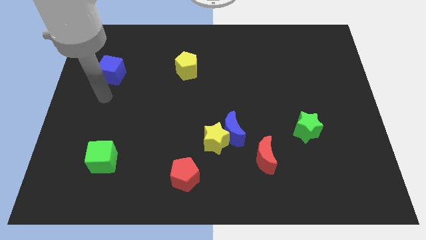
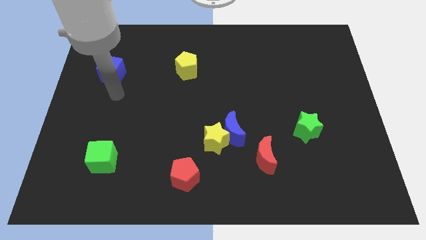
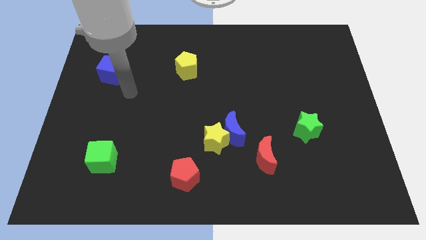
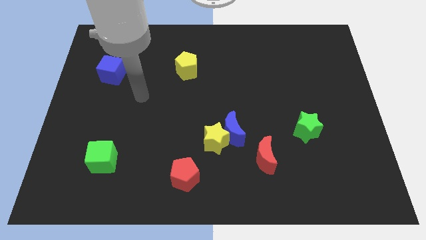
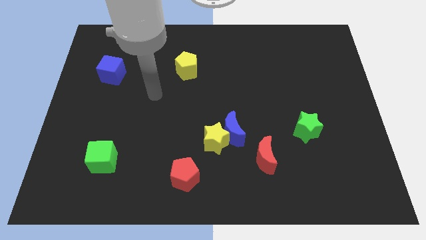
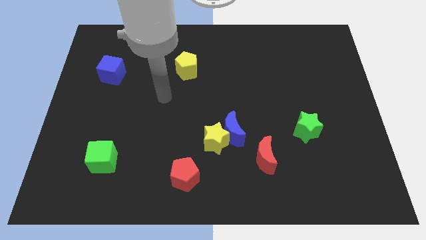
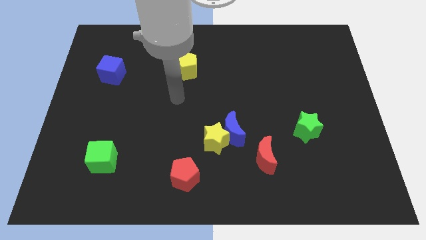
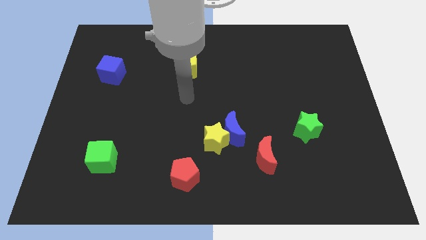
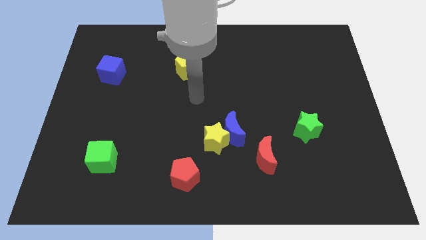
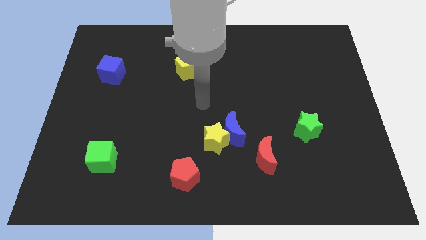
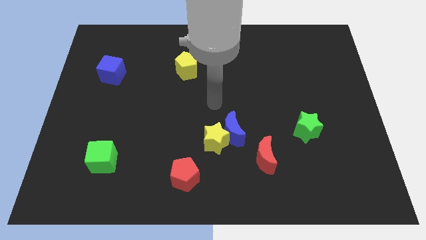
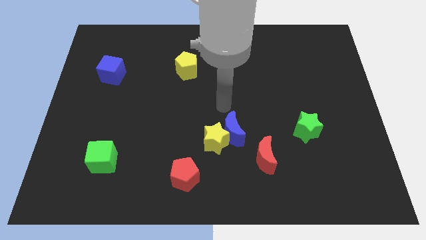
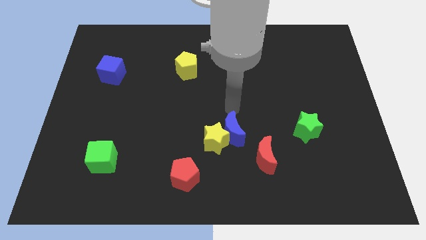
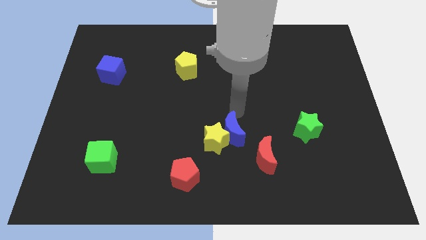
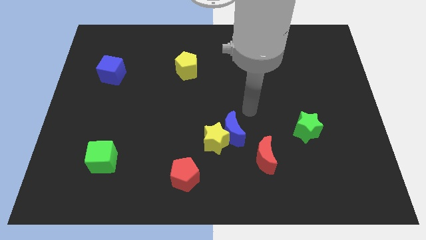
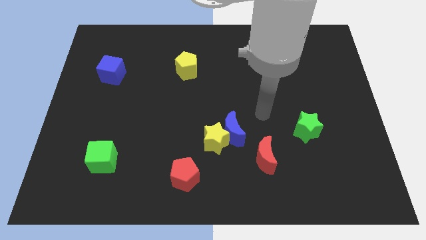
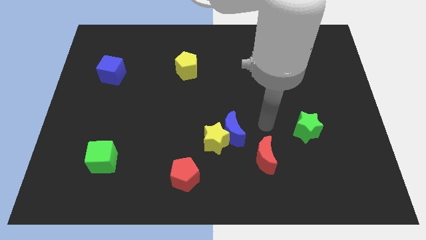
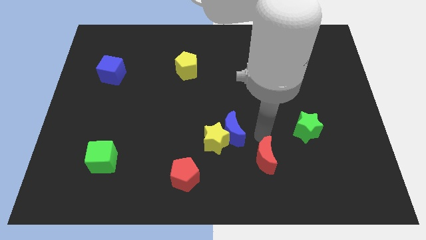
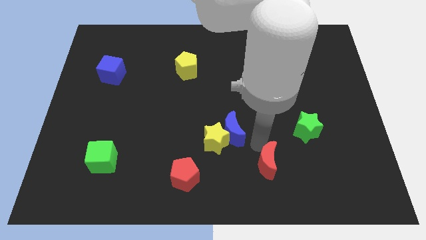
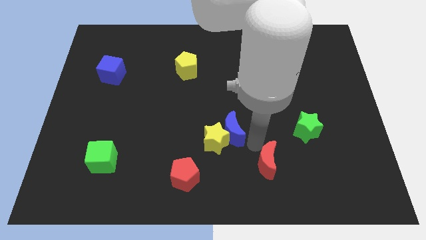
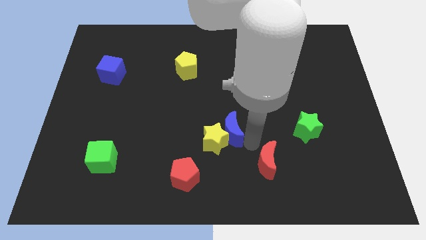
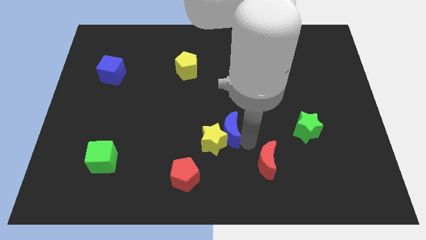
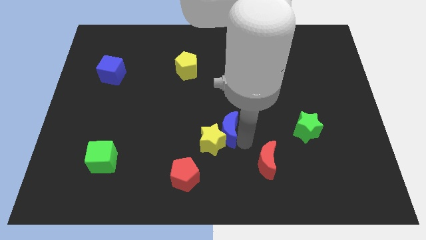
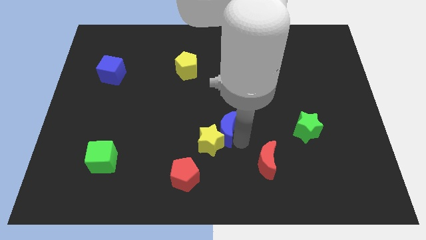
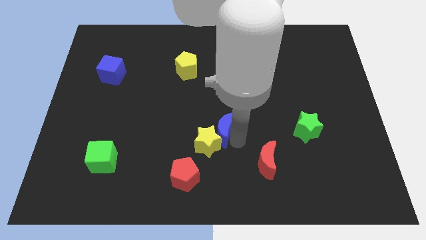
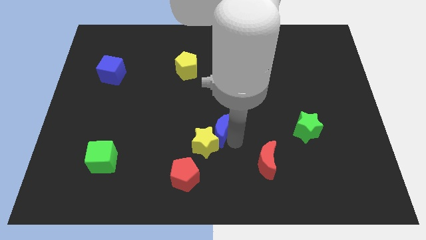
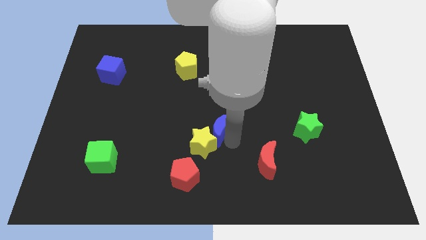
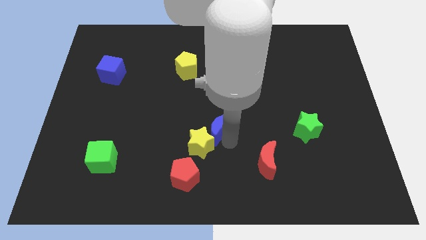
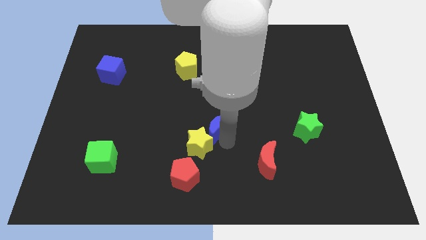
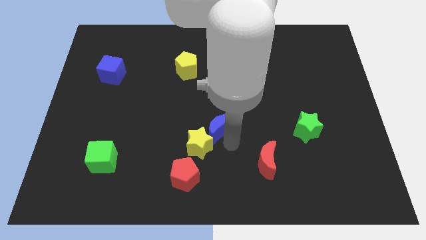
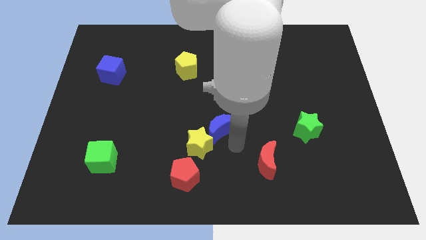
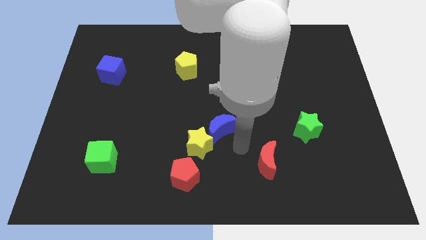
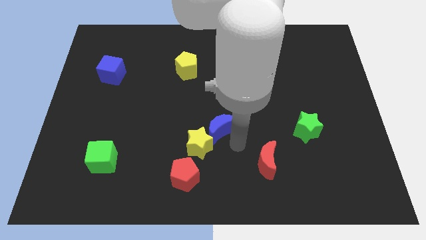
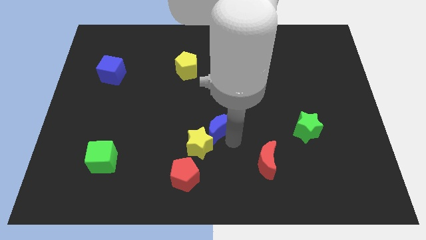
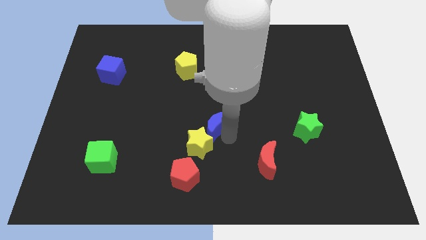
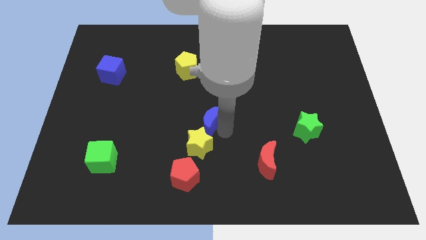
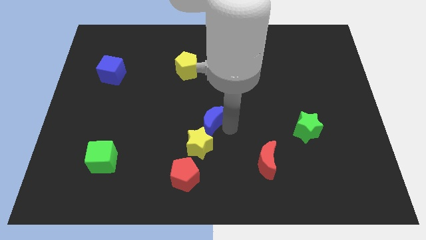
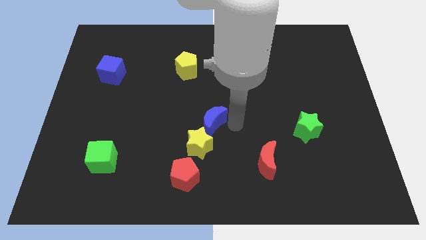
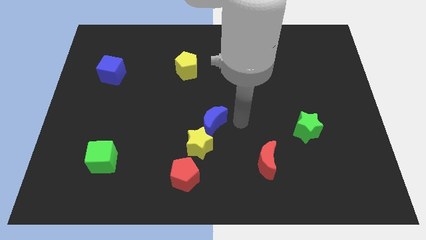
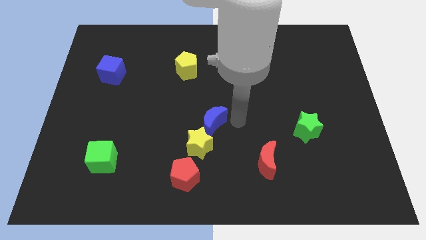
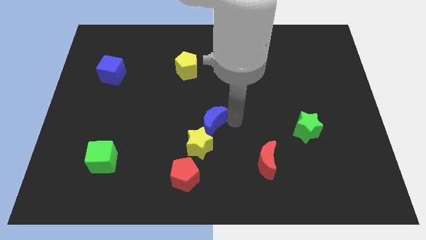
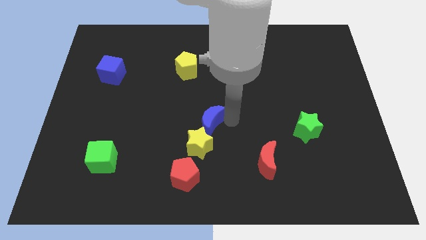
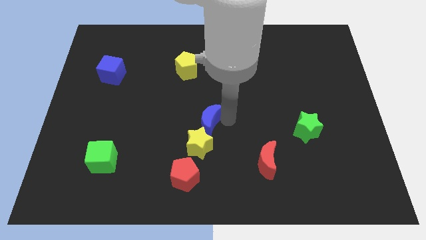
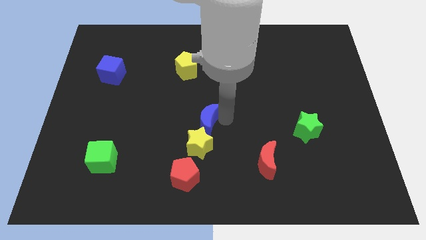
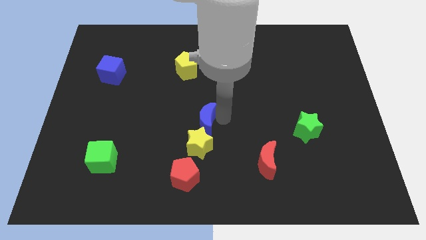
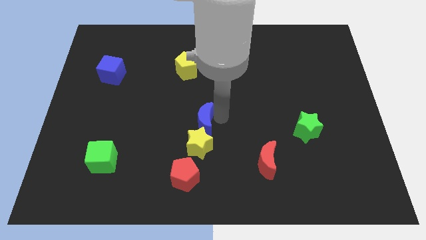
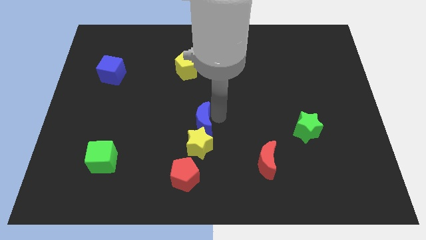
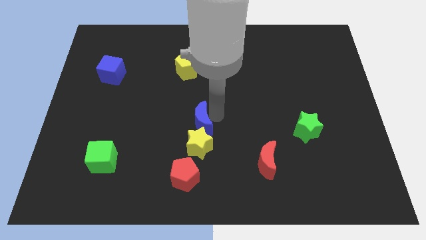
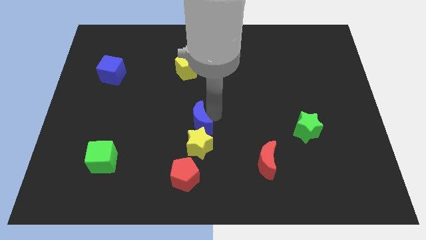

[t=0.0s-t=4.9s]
slide the blue moon a little bit to the left

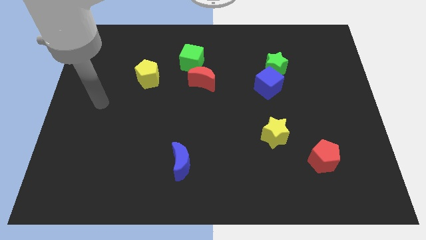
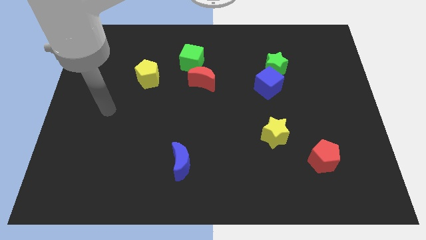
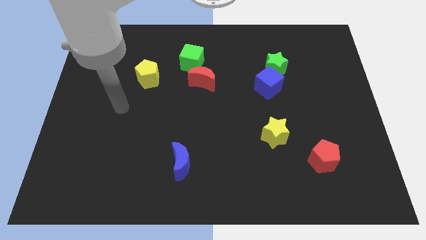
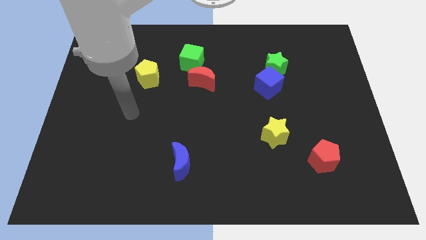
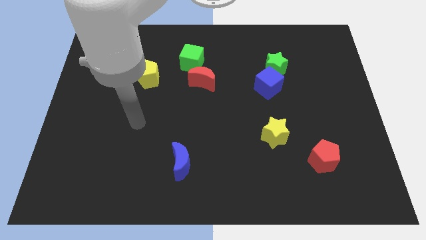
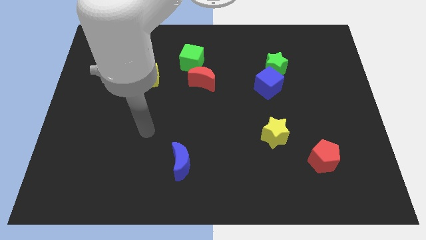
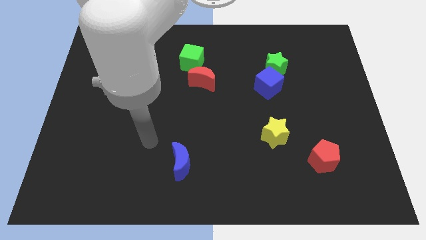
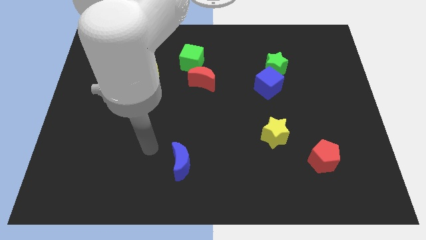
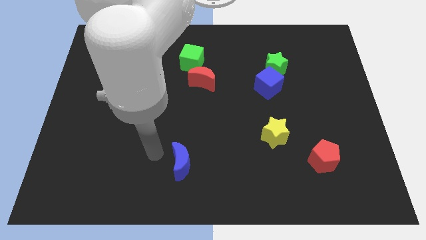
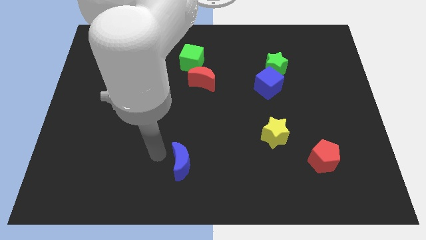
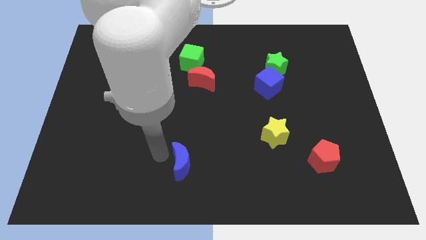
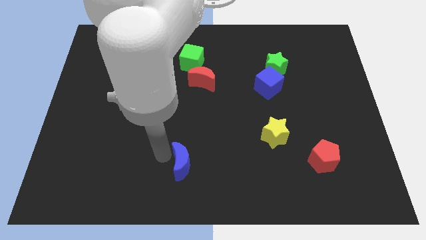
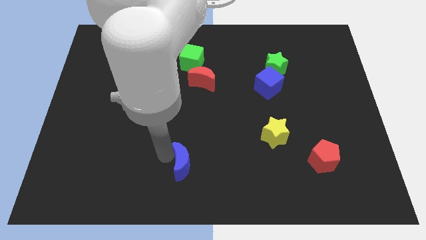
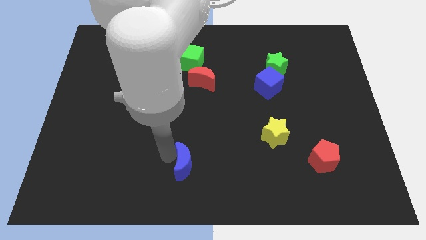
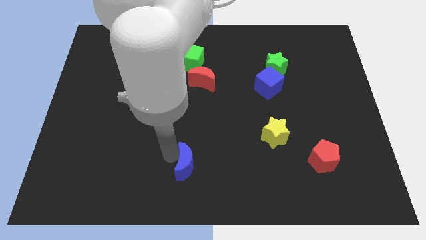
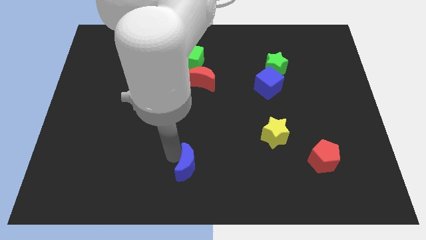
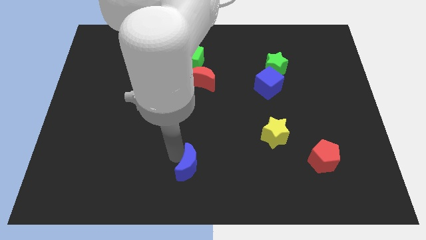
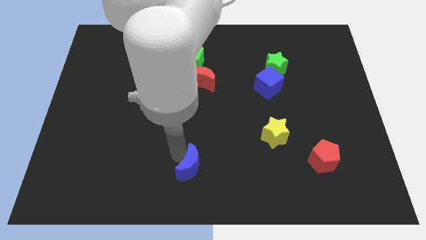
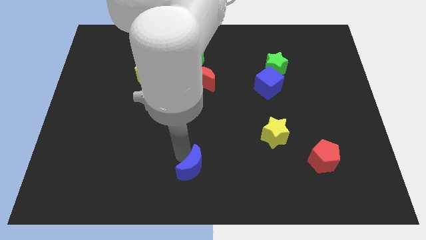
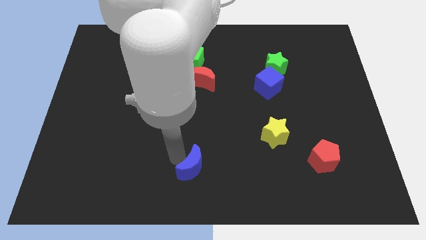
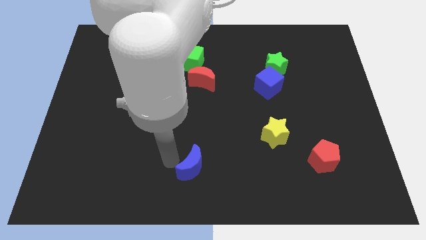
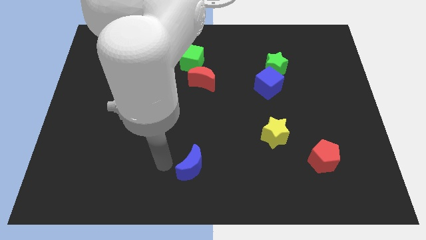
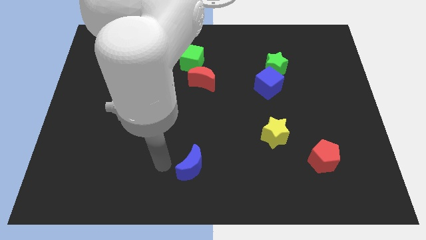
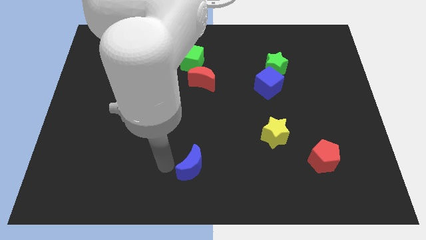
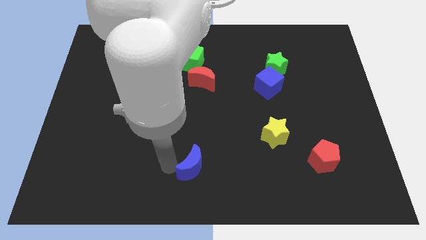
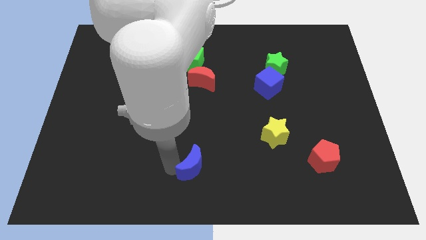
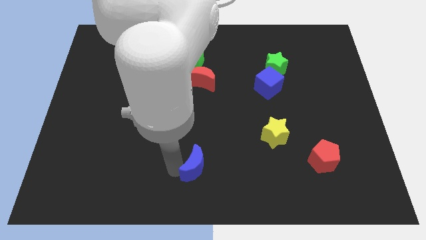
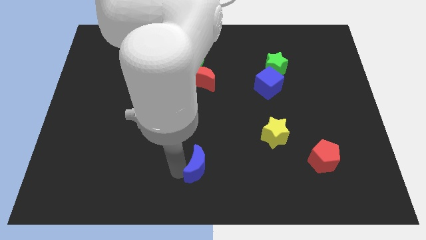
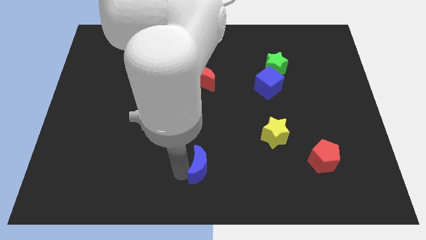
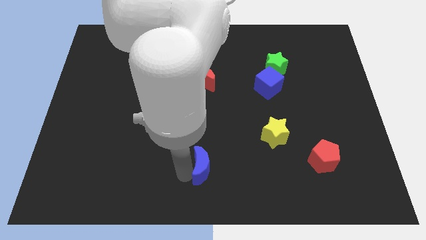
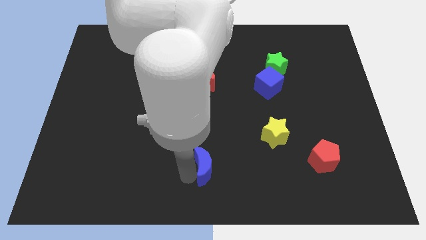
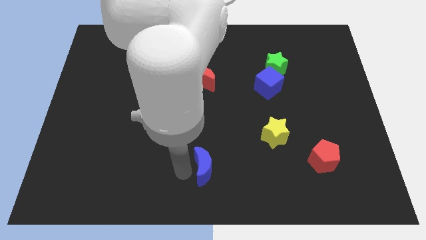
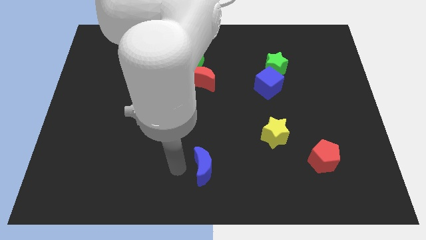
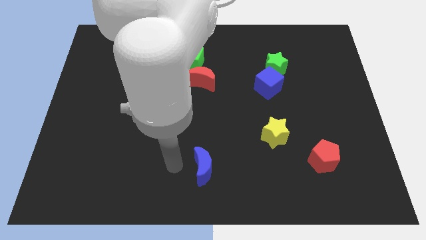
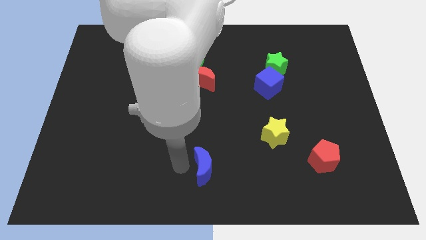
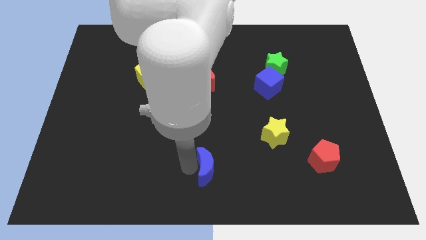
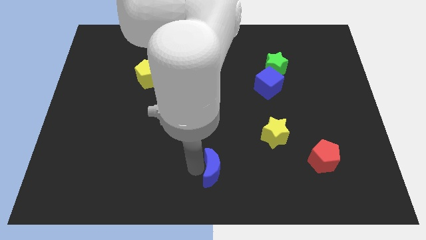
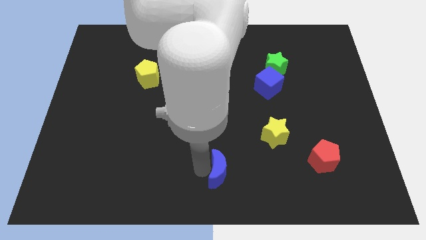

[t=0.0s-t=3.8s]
push the blue moon a little bit to the right
